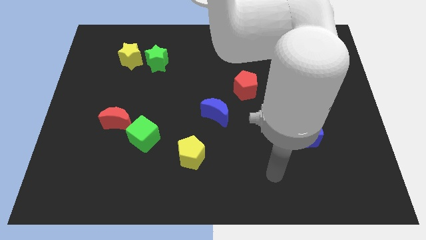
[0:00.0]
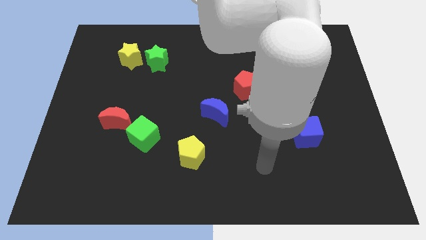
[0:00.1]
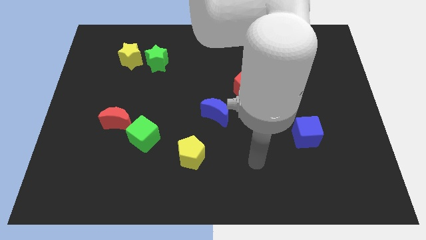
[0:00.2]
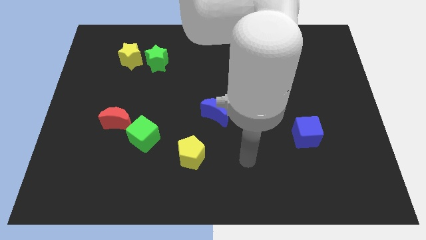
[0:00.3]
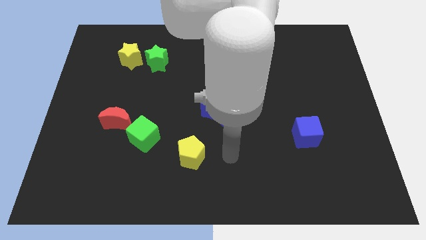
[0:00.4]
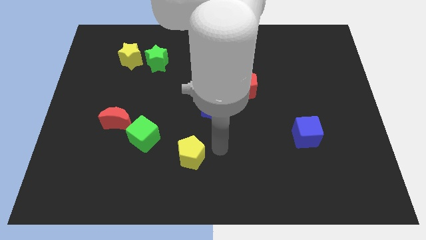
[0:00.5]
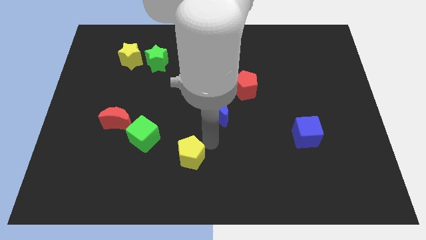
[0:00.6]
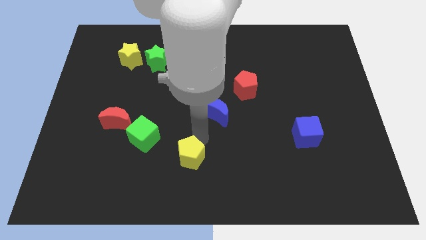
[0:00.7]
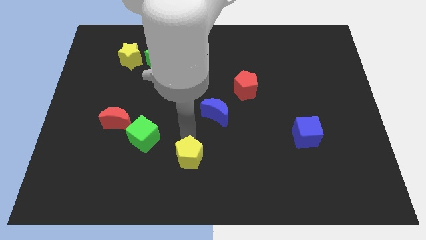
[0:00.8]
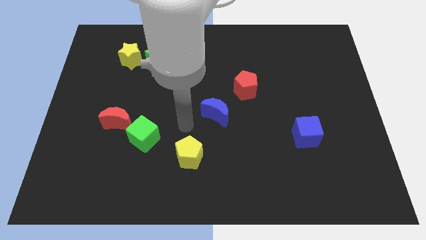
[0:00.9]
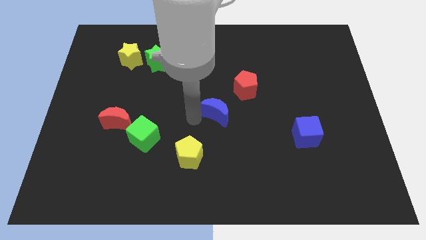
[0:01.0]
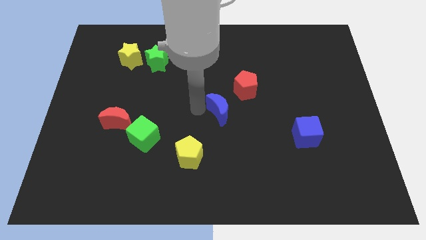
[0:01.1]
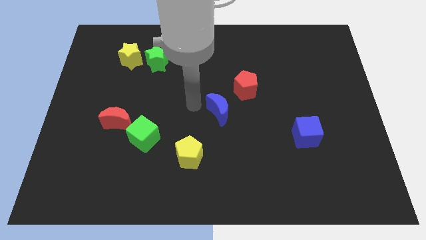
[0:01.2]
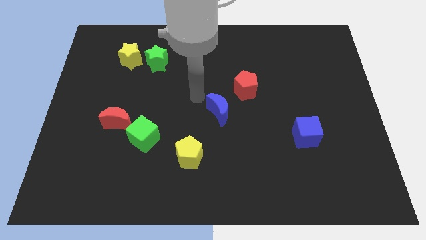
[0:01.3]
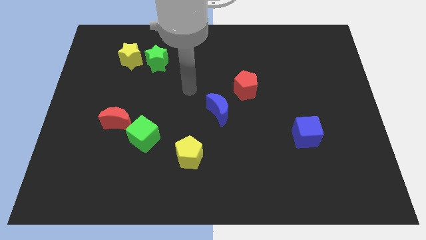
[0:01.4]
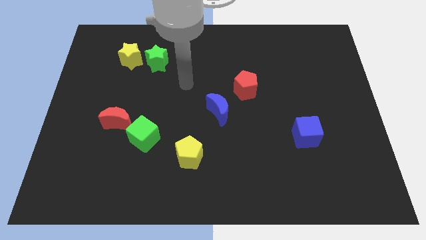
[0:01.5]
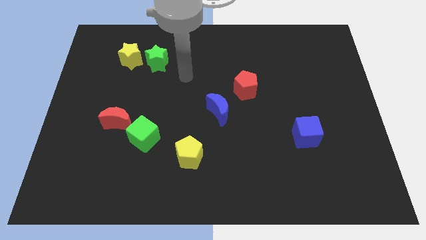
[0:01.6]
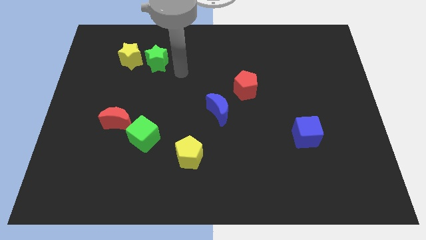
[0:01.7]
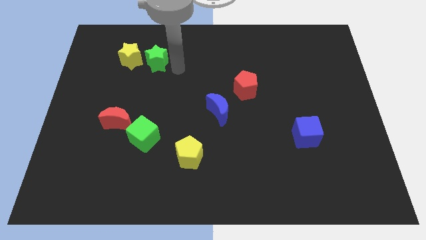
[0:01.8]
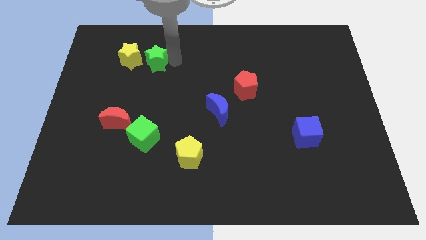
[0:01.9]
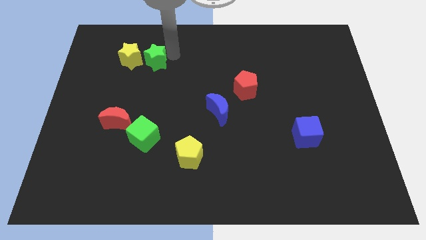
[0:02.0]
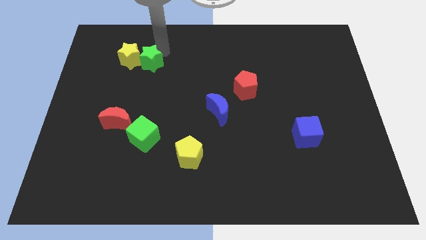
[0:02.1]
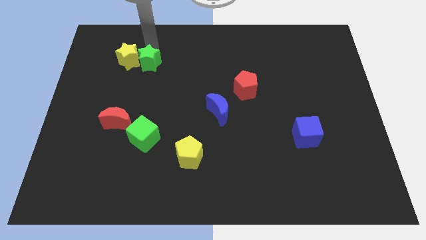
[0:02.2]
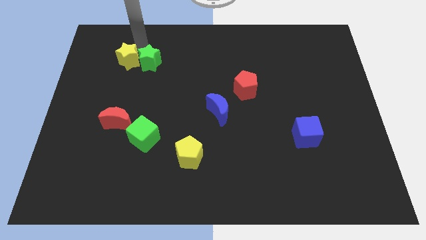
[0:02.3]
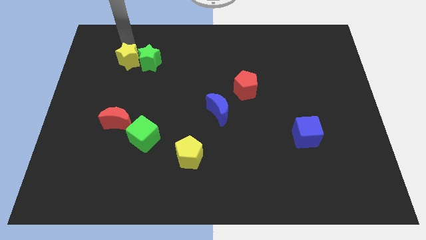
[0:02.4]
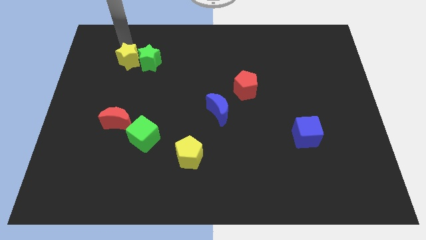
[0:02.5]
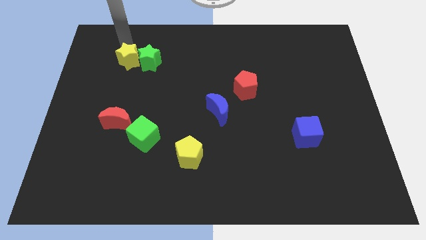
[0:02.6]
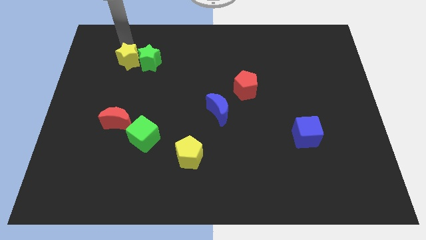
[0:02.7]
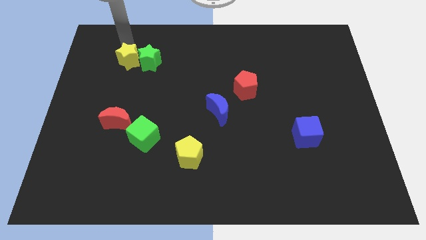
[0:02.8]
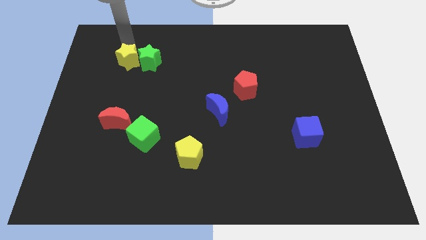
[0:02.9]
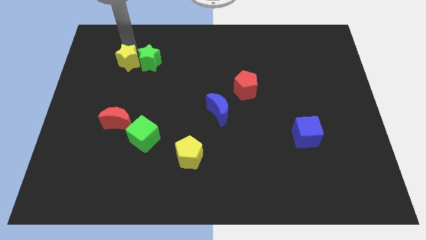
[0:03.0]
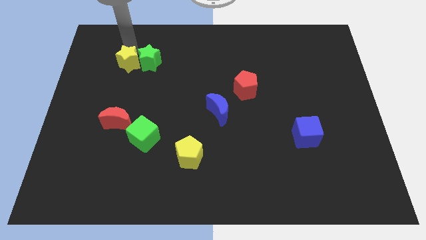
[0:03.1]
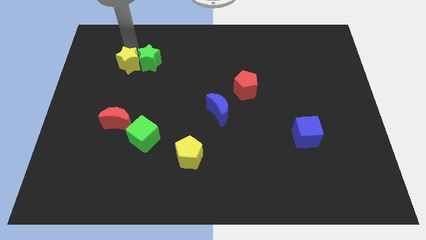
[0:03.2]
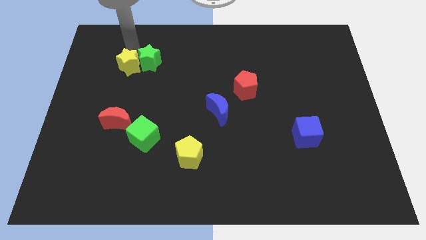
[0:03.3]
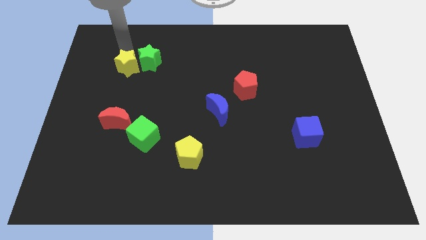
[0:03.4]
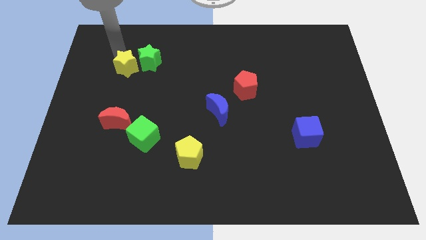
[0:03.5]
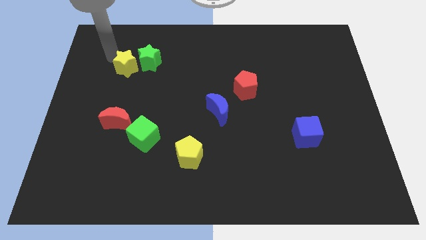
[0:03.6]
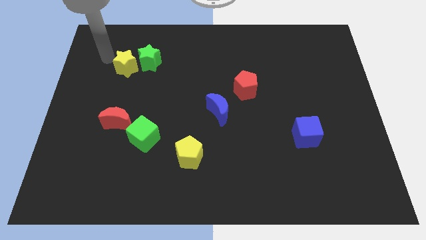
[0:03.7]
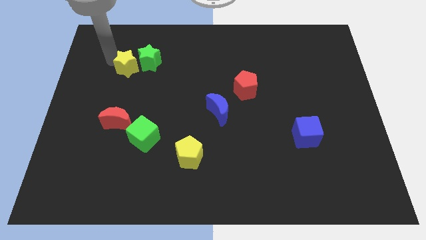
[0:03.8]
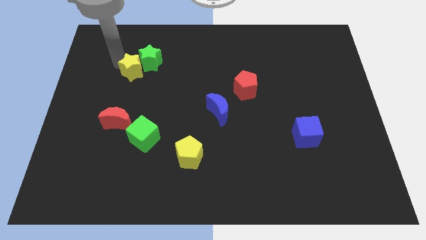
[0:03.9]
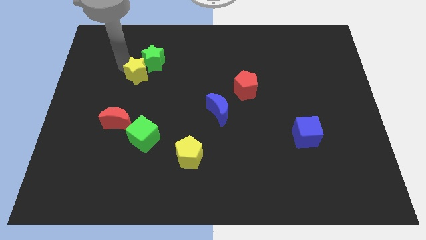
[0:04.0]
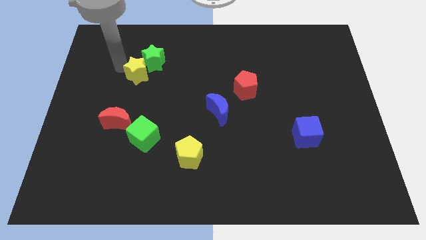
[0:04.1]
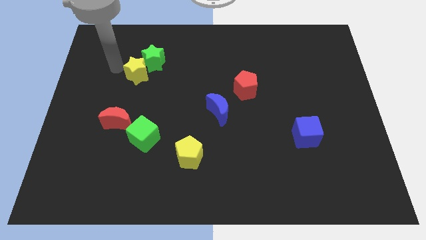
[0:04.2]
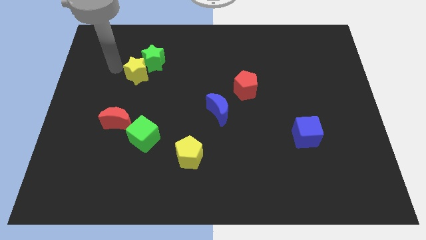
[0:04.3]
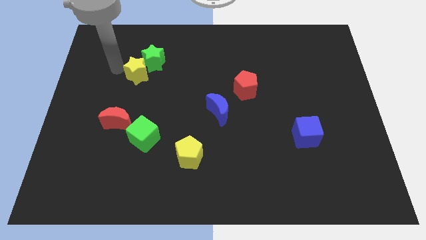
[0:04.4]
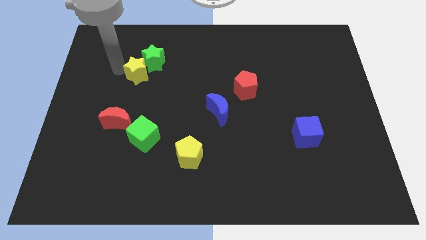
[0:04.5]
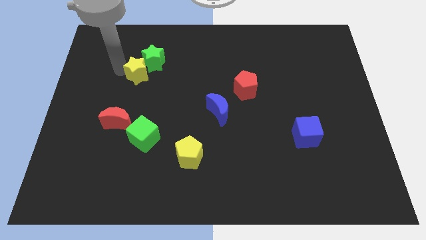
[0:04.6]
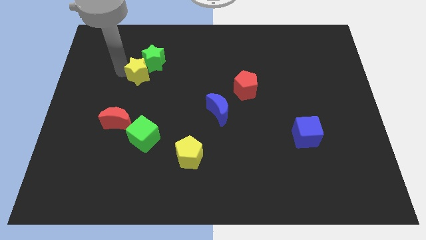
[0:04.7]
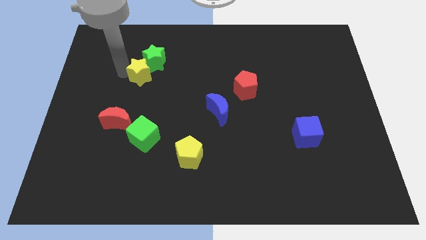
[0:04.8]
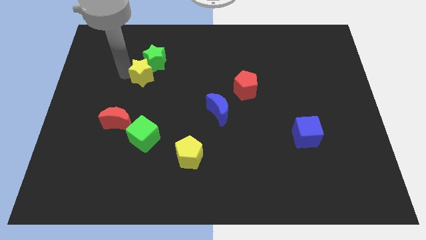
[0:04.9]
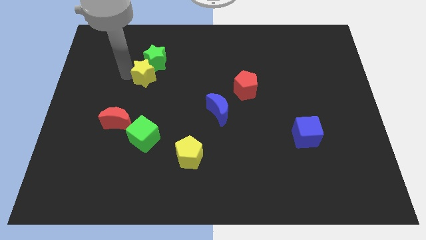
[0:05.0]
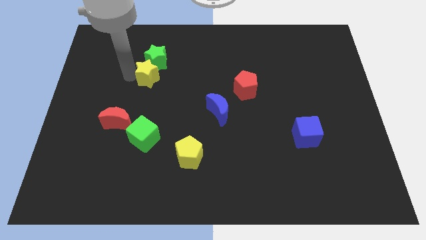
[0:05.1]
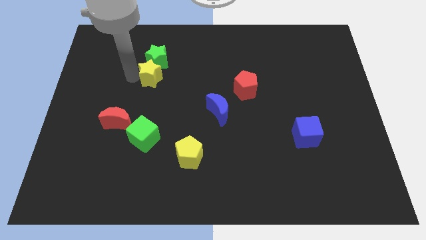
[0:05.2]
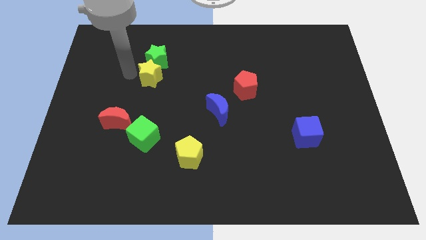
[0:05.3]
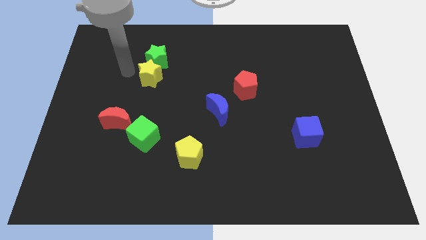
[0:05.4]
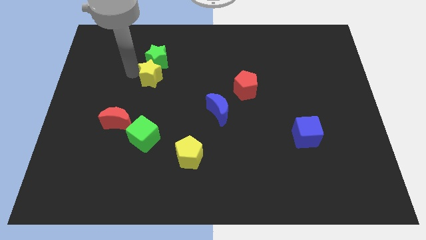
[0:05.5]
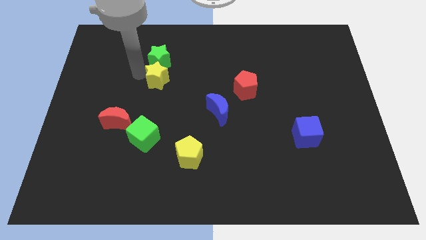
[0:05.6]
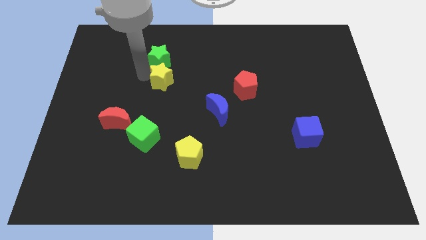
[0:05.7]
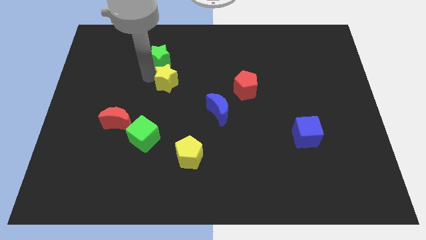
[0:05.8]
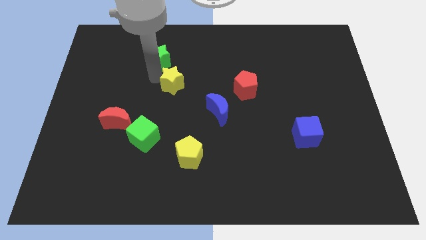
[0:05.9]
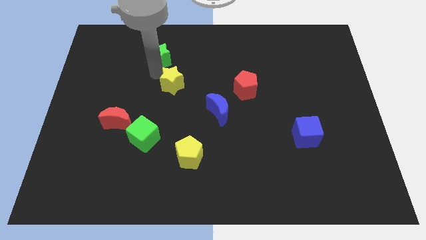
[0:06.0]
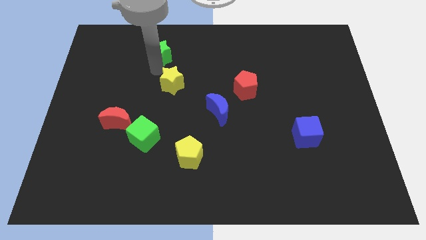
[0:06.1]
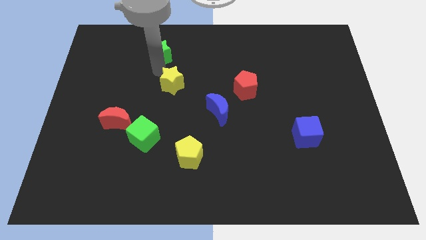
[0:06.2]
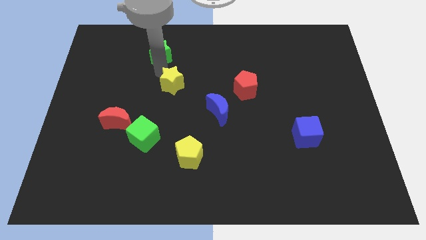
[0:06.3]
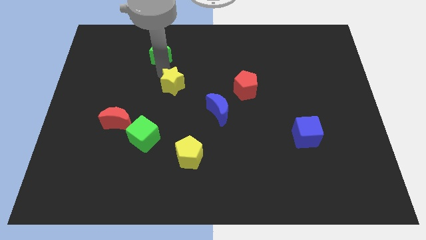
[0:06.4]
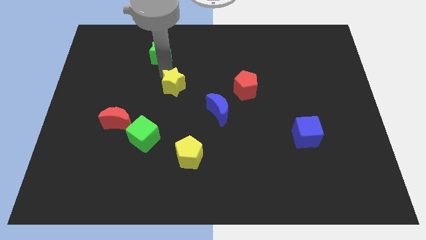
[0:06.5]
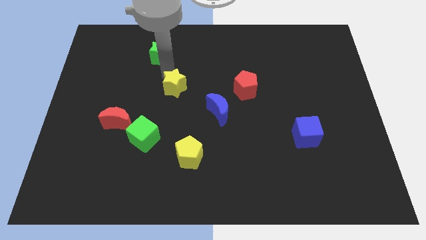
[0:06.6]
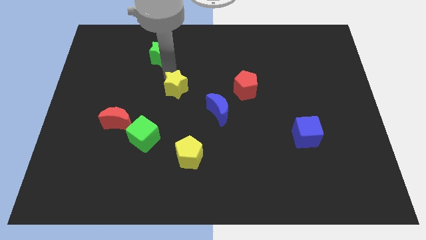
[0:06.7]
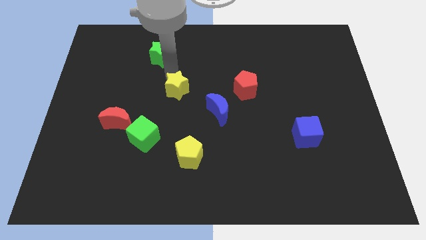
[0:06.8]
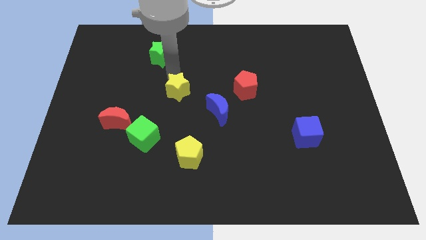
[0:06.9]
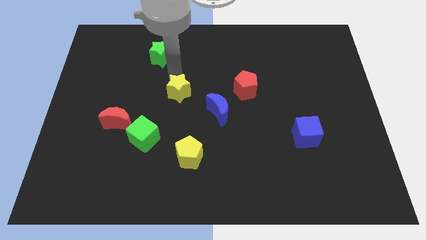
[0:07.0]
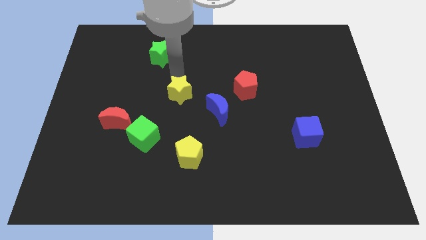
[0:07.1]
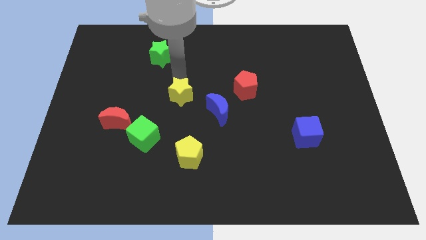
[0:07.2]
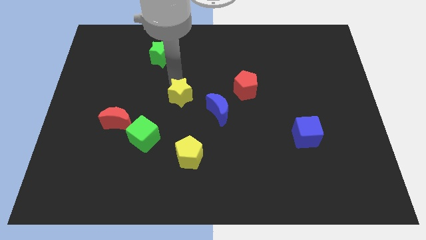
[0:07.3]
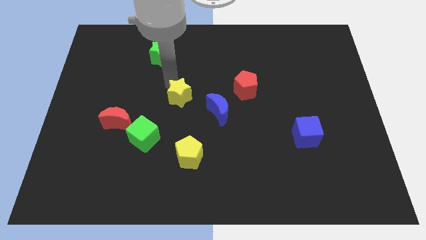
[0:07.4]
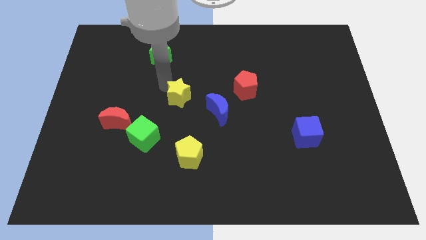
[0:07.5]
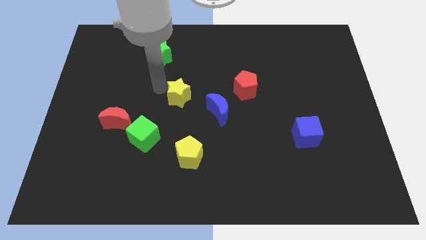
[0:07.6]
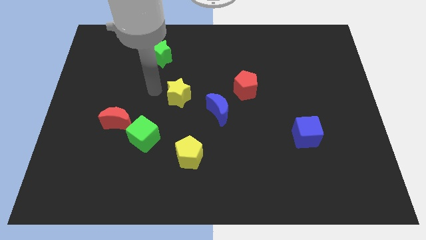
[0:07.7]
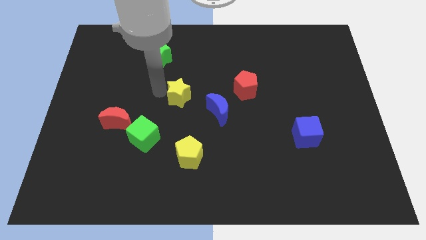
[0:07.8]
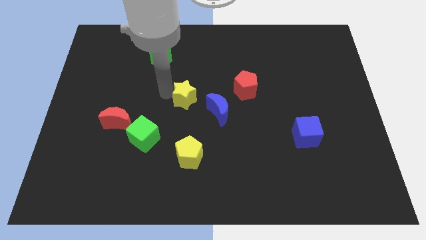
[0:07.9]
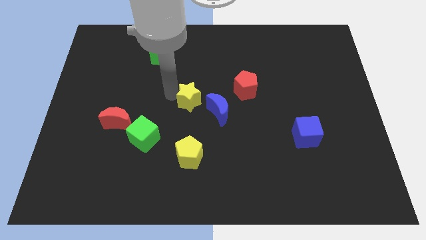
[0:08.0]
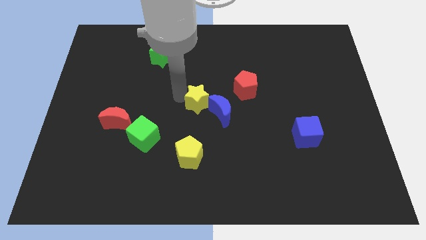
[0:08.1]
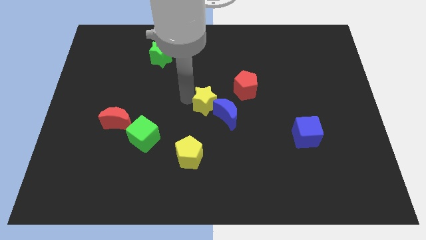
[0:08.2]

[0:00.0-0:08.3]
move the yellow star close to the blue moon
